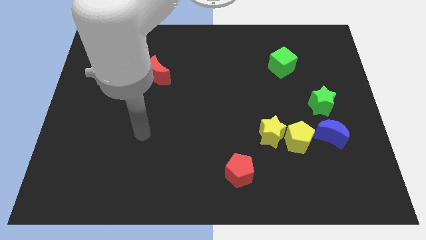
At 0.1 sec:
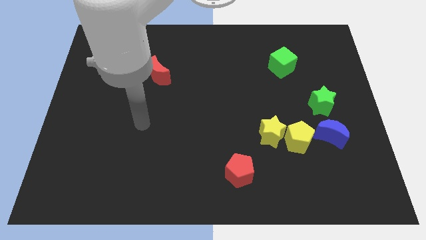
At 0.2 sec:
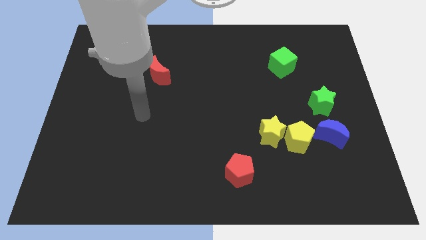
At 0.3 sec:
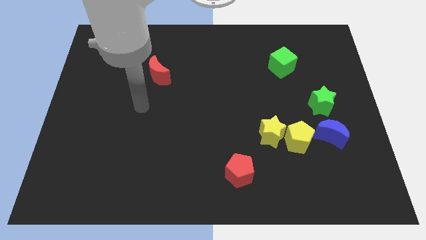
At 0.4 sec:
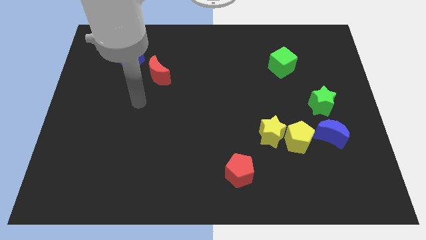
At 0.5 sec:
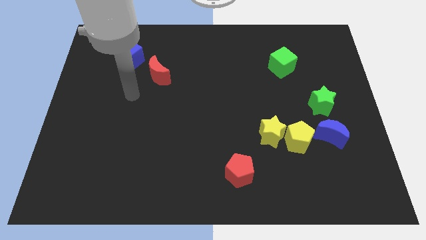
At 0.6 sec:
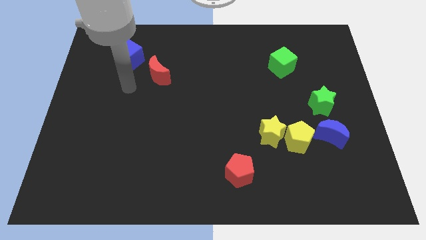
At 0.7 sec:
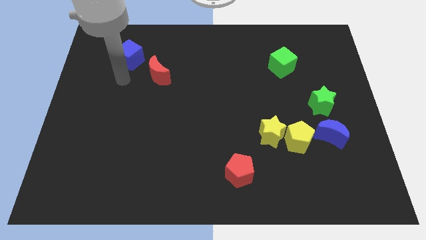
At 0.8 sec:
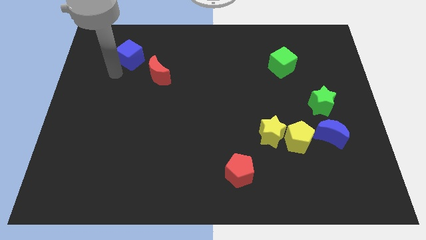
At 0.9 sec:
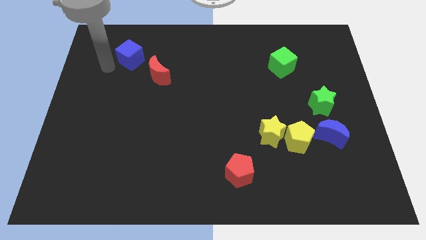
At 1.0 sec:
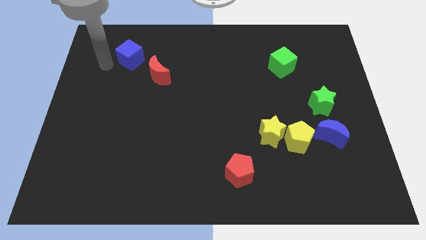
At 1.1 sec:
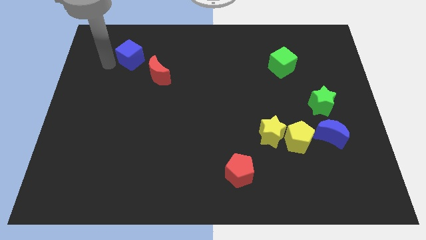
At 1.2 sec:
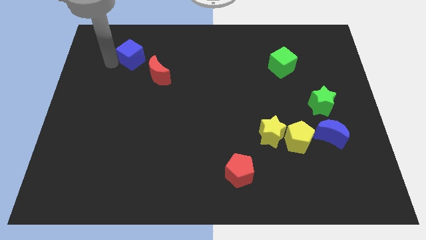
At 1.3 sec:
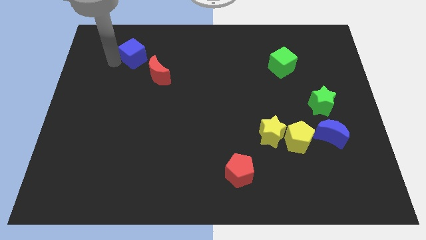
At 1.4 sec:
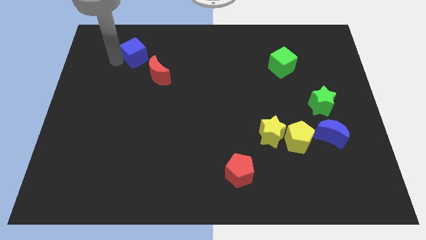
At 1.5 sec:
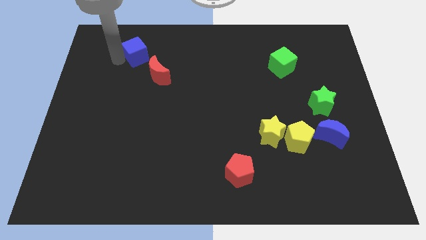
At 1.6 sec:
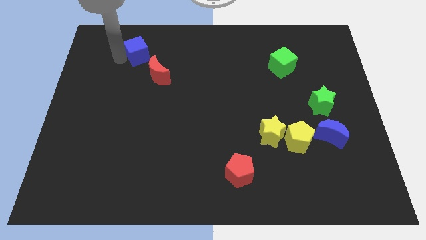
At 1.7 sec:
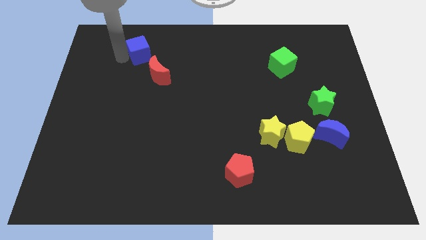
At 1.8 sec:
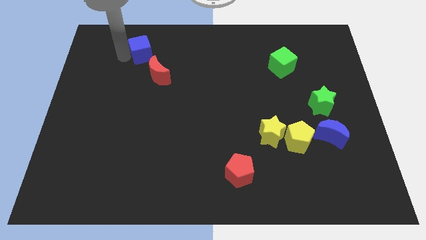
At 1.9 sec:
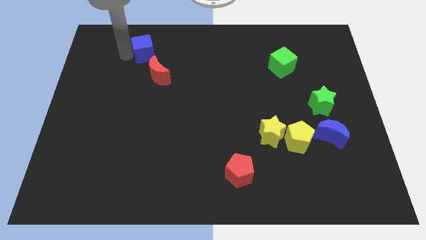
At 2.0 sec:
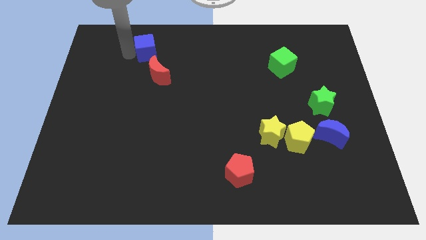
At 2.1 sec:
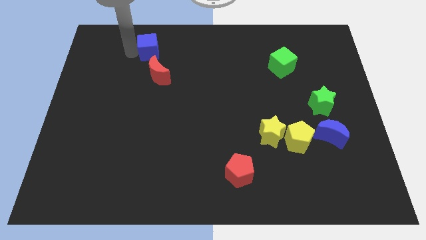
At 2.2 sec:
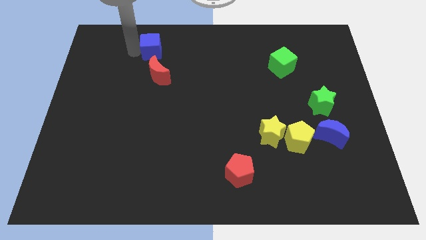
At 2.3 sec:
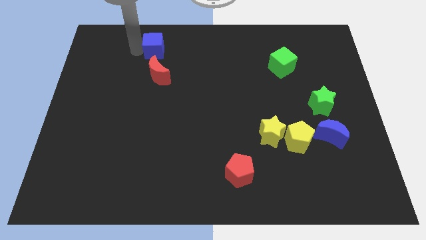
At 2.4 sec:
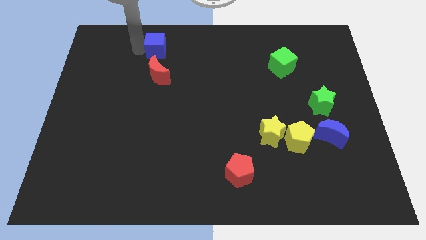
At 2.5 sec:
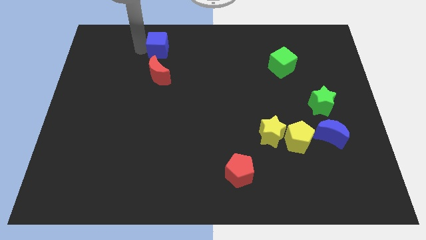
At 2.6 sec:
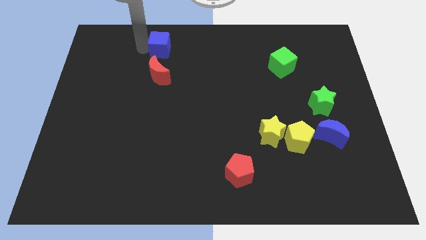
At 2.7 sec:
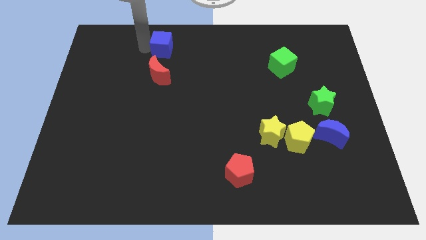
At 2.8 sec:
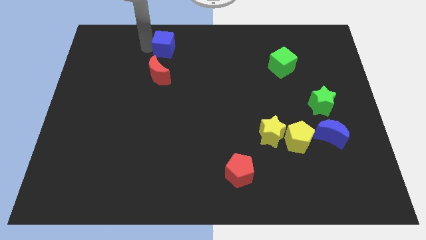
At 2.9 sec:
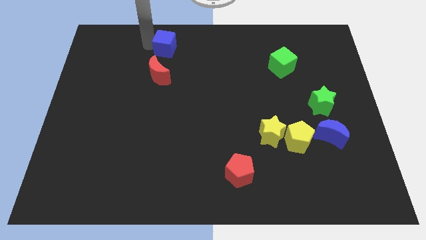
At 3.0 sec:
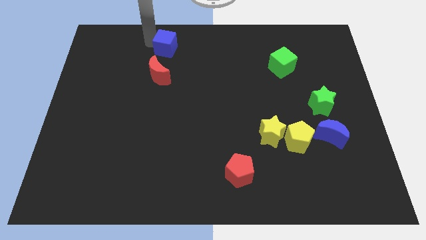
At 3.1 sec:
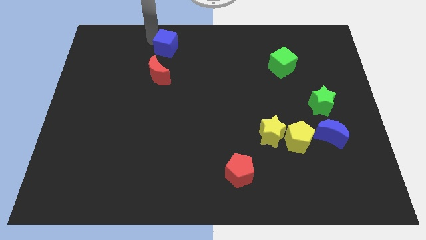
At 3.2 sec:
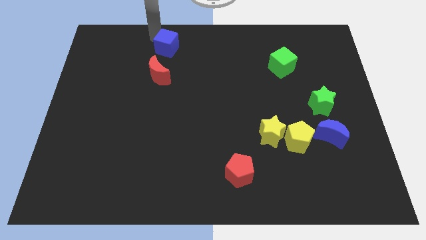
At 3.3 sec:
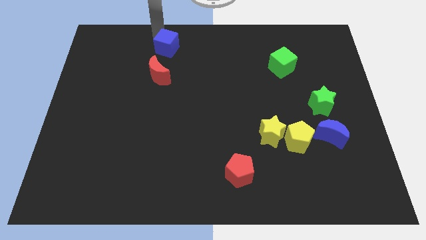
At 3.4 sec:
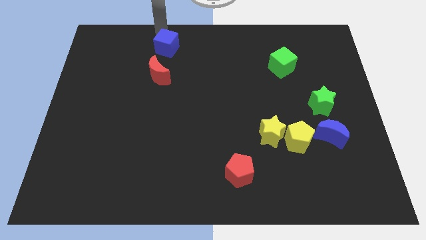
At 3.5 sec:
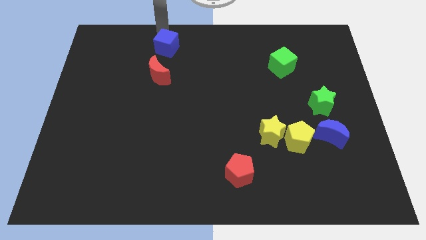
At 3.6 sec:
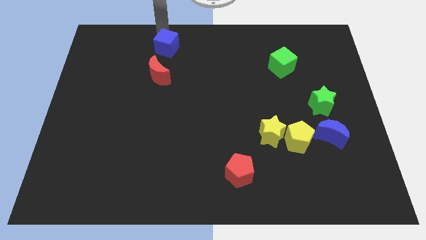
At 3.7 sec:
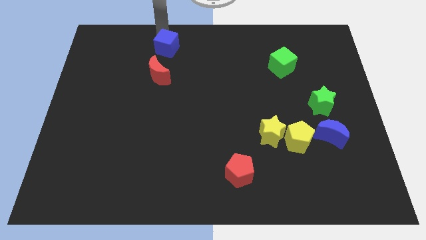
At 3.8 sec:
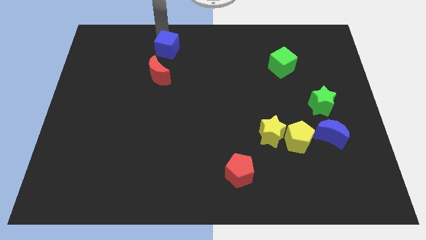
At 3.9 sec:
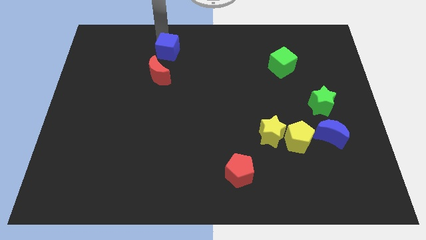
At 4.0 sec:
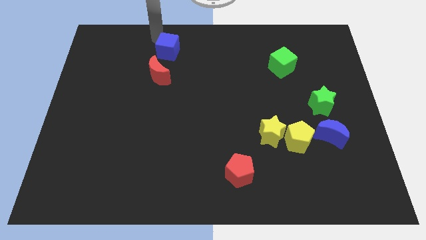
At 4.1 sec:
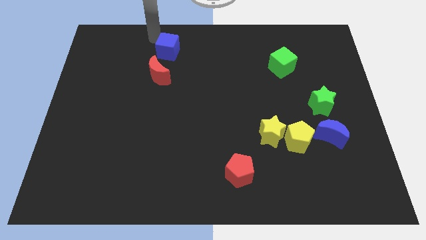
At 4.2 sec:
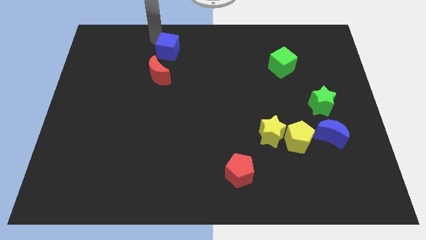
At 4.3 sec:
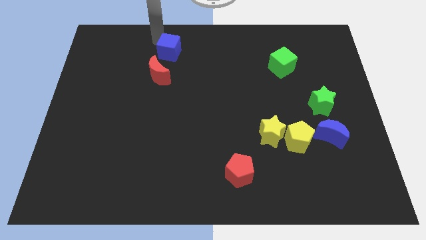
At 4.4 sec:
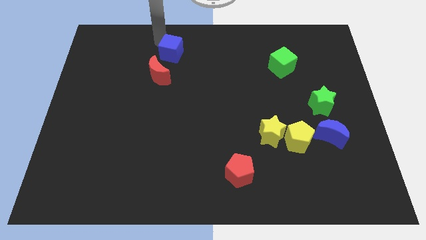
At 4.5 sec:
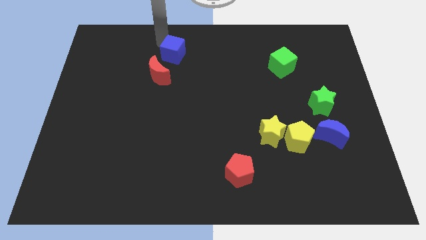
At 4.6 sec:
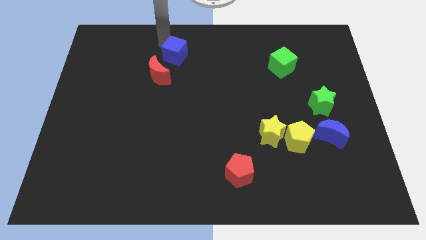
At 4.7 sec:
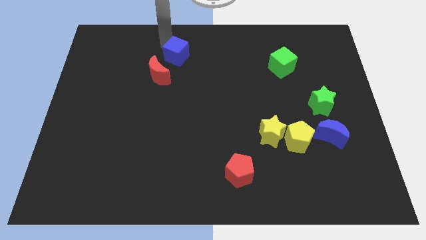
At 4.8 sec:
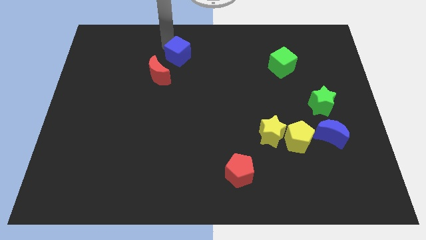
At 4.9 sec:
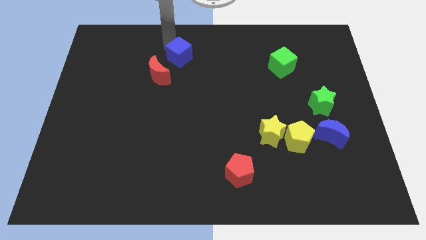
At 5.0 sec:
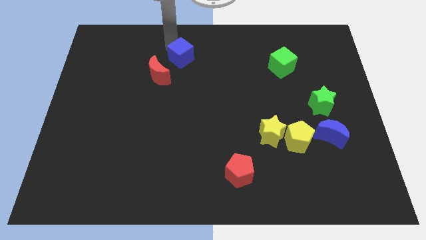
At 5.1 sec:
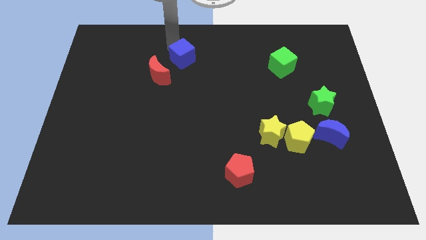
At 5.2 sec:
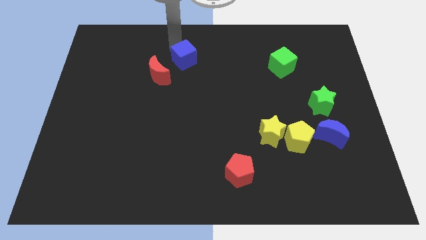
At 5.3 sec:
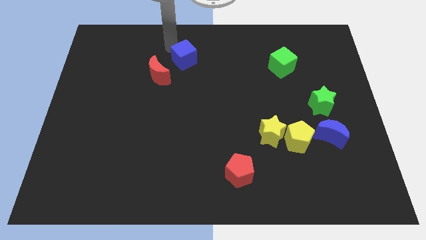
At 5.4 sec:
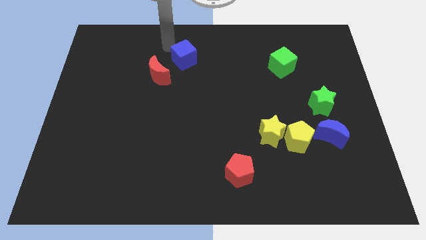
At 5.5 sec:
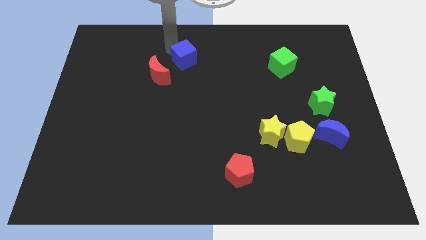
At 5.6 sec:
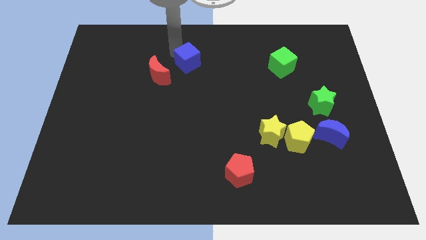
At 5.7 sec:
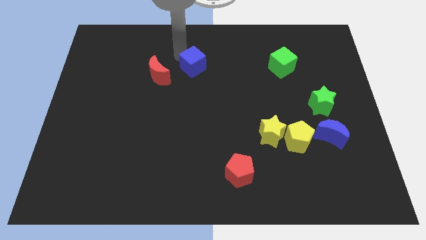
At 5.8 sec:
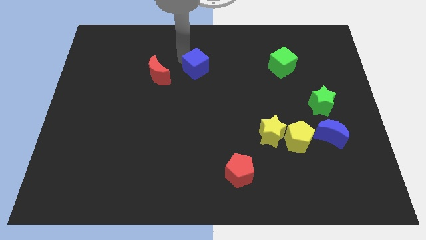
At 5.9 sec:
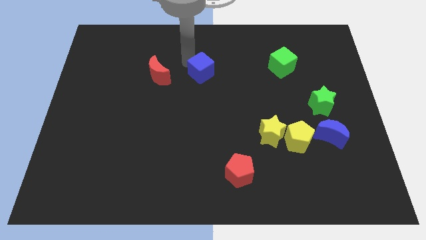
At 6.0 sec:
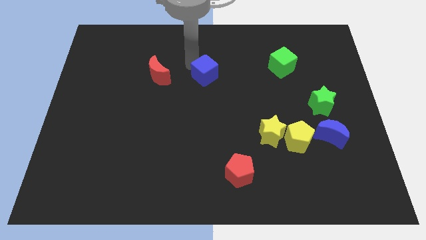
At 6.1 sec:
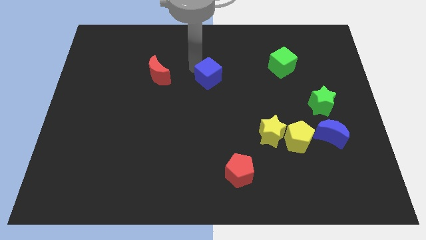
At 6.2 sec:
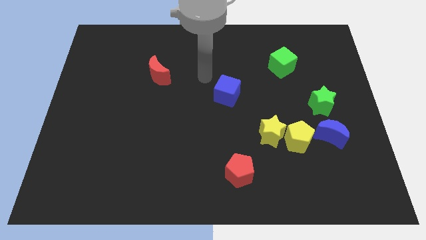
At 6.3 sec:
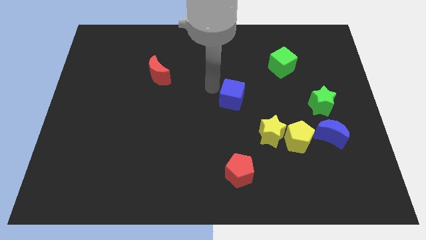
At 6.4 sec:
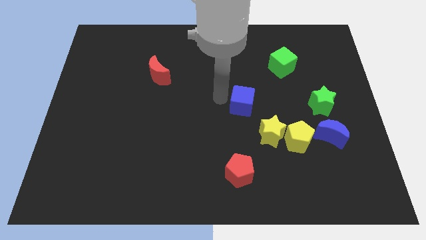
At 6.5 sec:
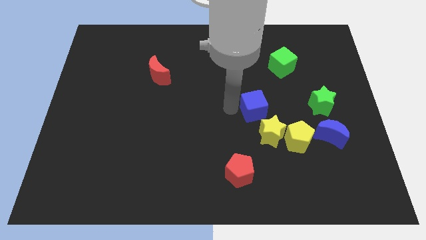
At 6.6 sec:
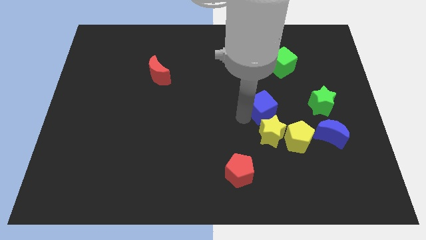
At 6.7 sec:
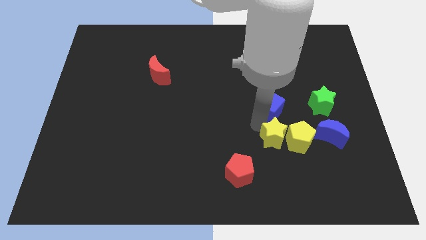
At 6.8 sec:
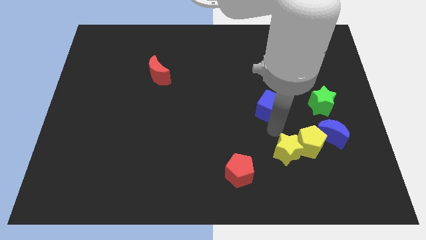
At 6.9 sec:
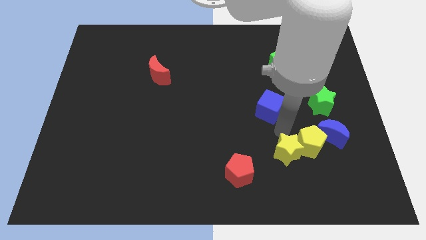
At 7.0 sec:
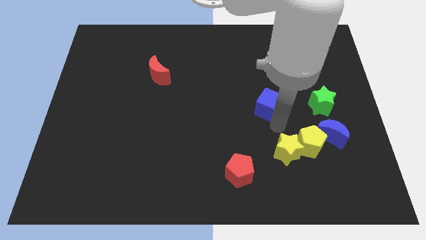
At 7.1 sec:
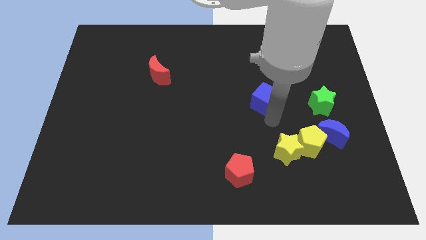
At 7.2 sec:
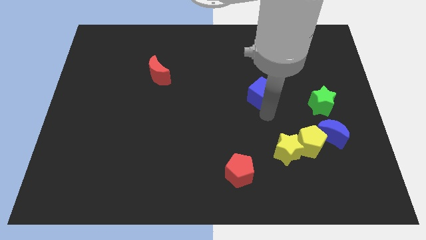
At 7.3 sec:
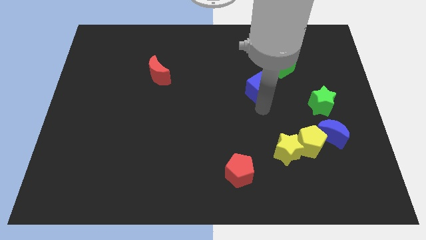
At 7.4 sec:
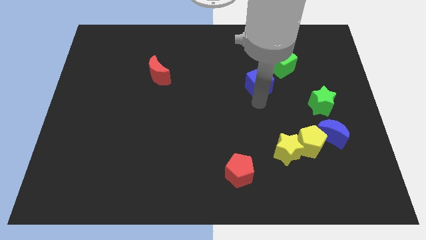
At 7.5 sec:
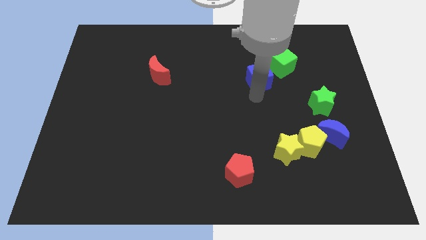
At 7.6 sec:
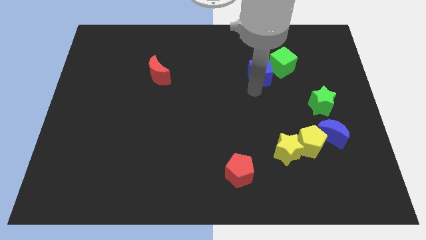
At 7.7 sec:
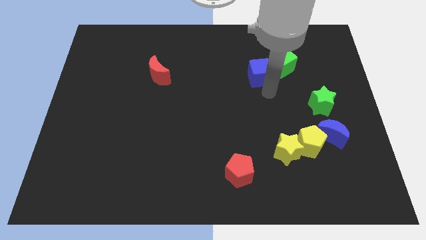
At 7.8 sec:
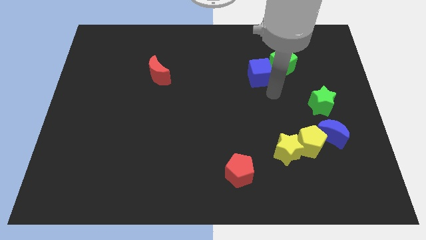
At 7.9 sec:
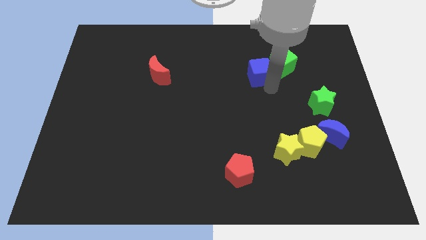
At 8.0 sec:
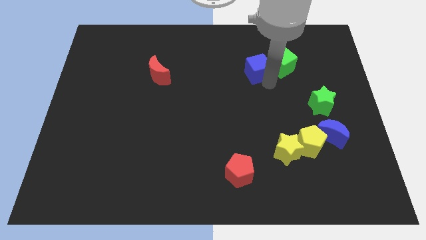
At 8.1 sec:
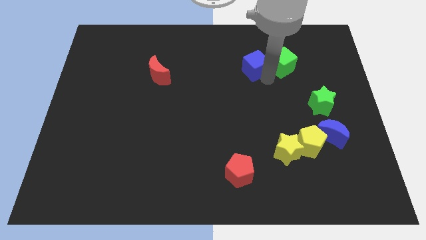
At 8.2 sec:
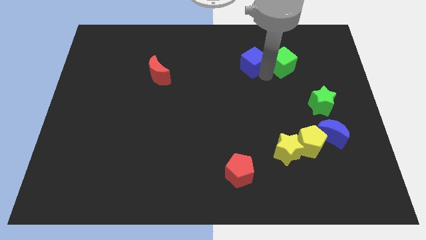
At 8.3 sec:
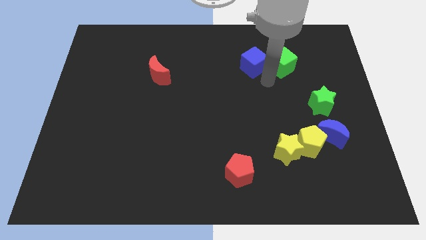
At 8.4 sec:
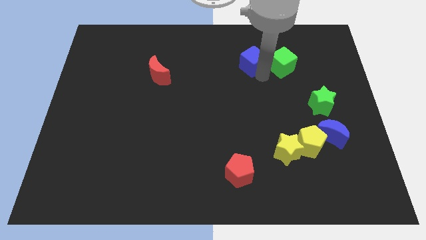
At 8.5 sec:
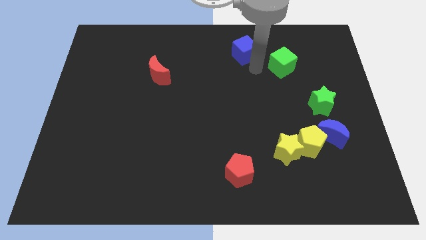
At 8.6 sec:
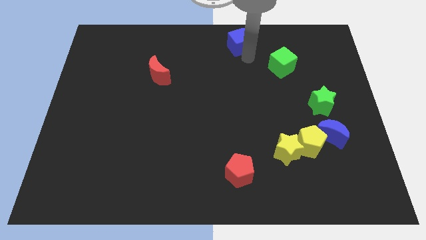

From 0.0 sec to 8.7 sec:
put the blue cube to the top side
